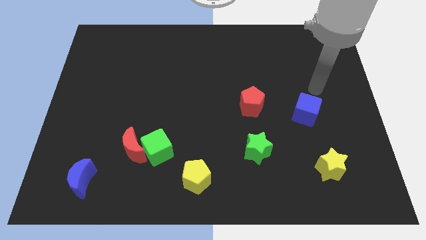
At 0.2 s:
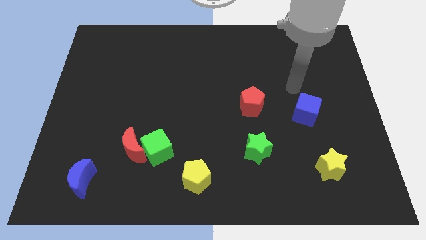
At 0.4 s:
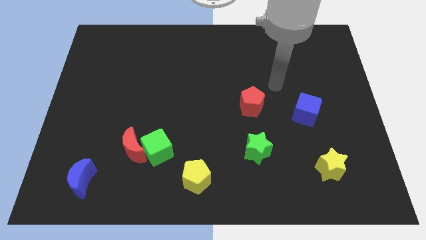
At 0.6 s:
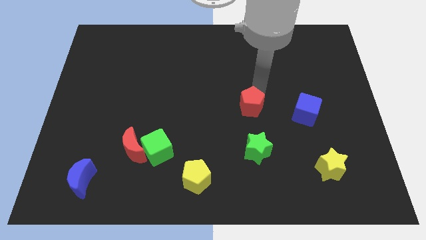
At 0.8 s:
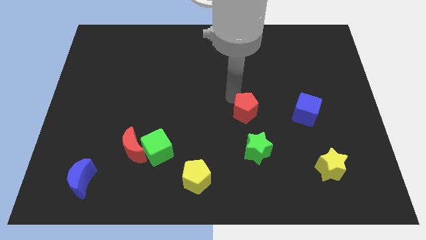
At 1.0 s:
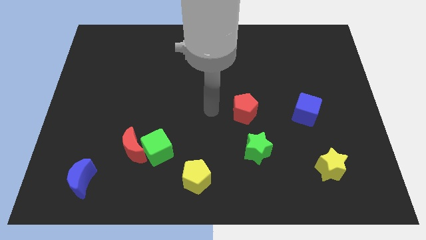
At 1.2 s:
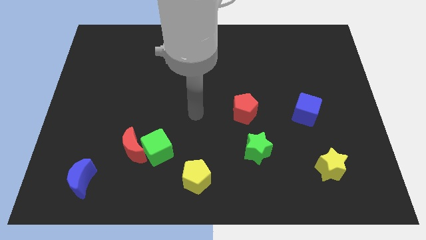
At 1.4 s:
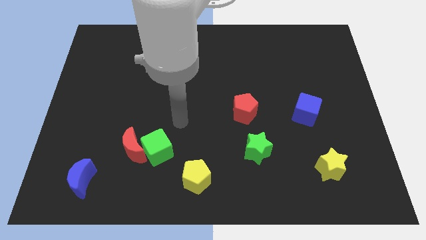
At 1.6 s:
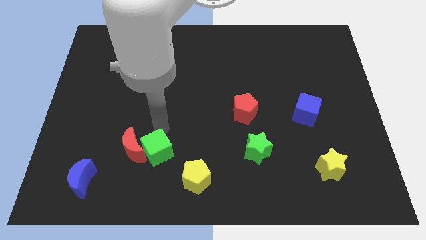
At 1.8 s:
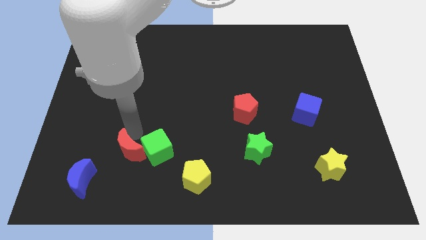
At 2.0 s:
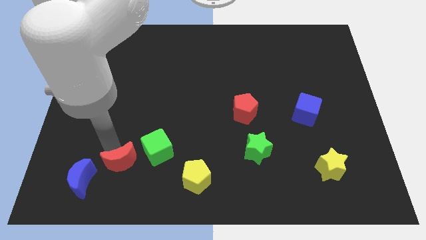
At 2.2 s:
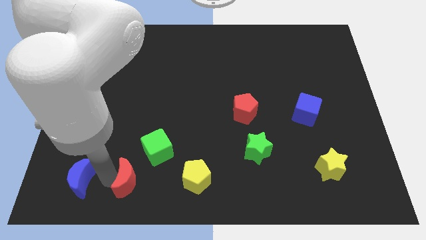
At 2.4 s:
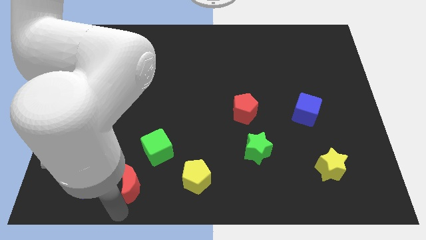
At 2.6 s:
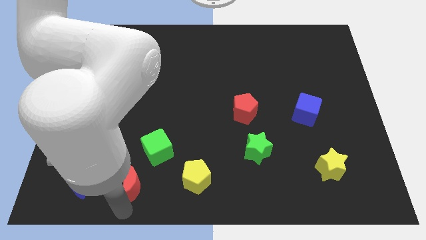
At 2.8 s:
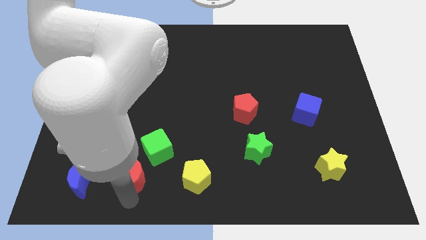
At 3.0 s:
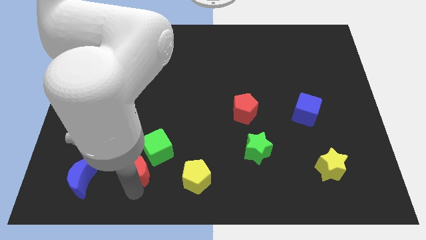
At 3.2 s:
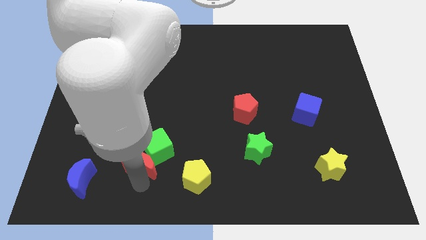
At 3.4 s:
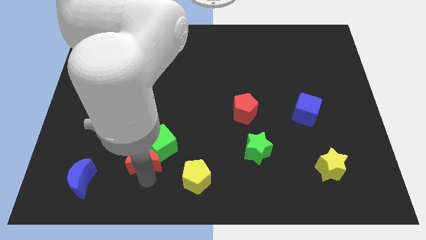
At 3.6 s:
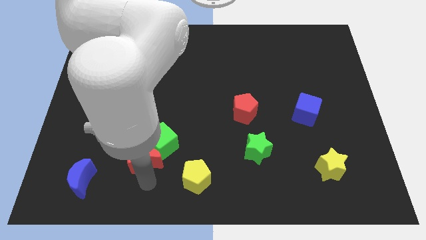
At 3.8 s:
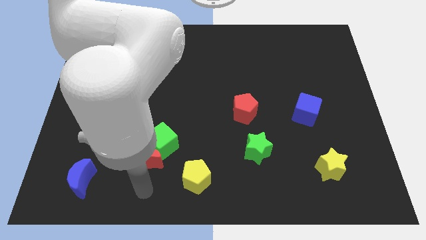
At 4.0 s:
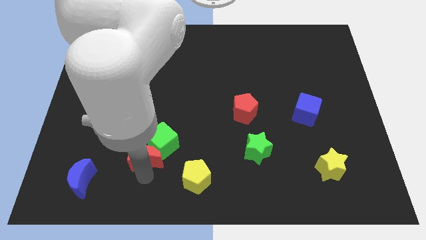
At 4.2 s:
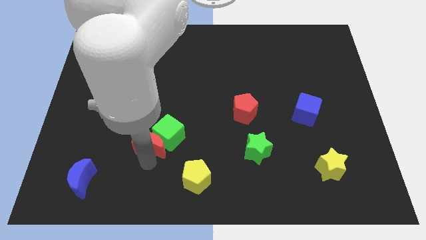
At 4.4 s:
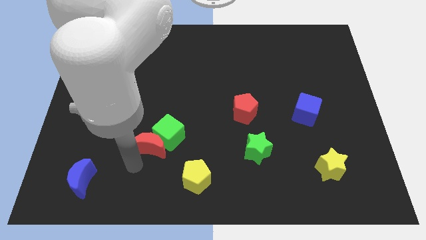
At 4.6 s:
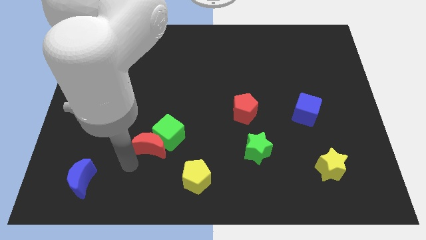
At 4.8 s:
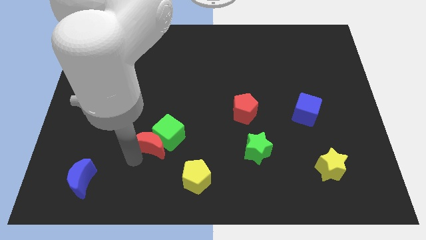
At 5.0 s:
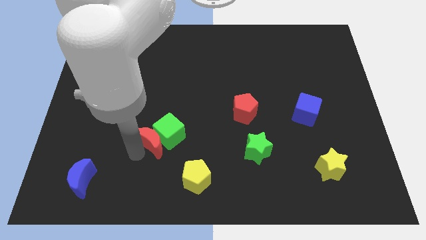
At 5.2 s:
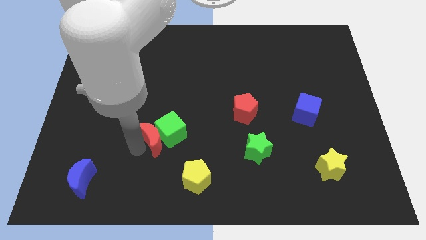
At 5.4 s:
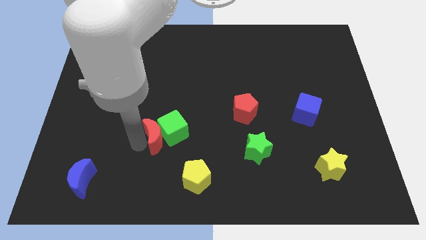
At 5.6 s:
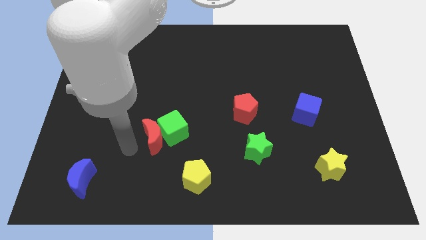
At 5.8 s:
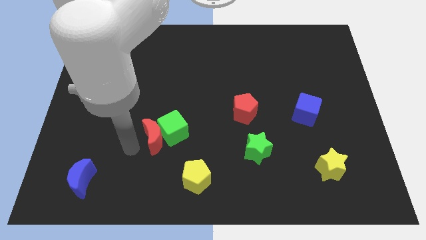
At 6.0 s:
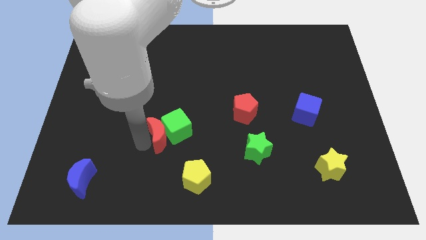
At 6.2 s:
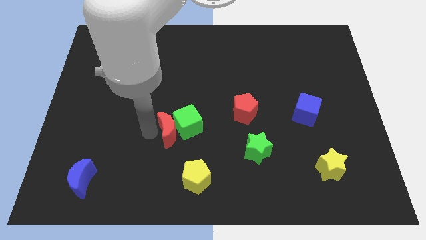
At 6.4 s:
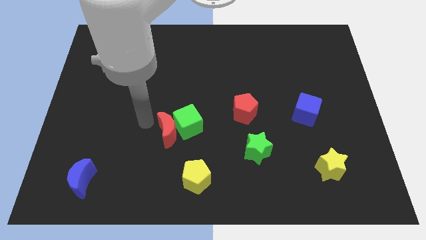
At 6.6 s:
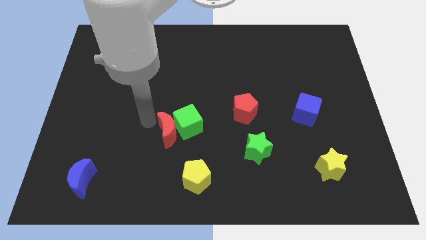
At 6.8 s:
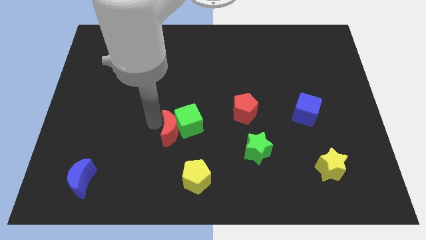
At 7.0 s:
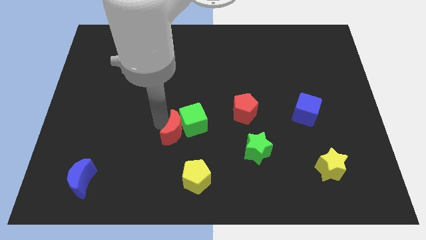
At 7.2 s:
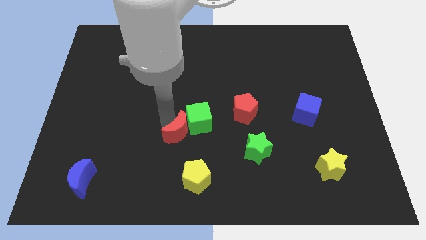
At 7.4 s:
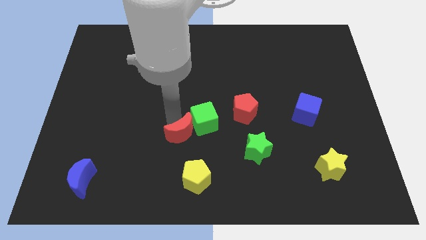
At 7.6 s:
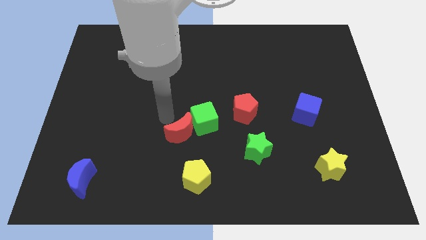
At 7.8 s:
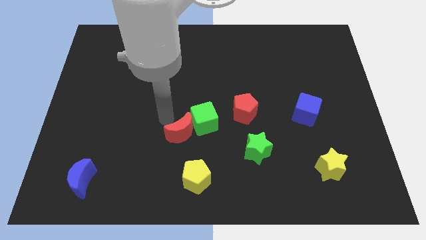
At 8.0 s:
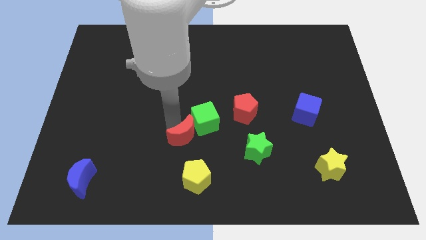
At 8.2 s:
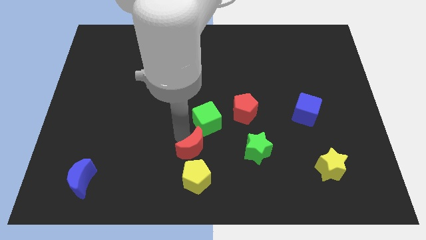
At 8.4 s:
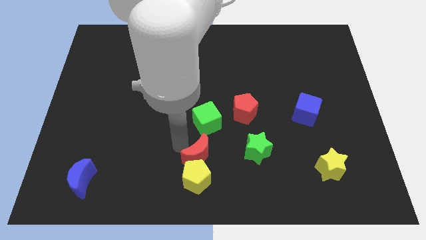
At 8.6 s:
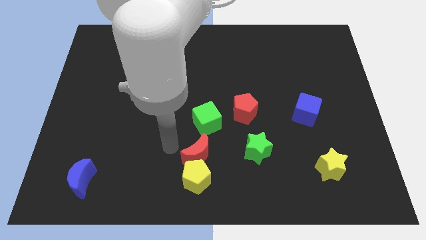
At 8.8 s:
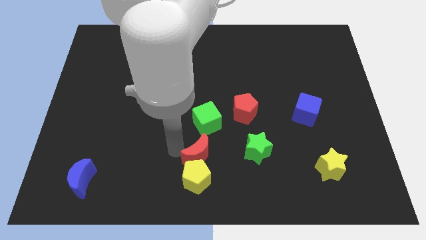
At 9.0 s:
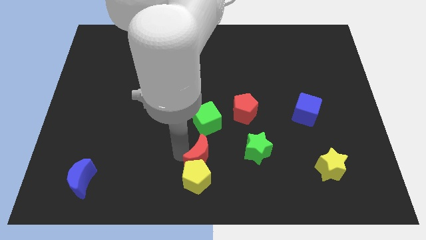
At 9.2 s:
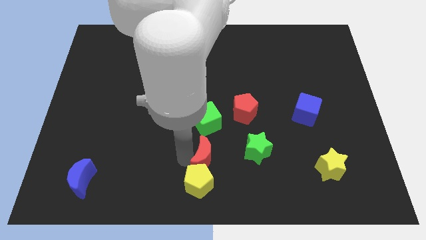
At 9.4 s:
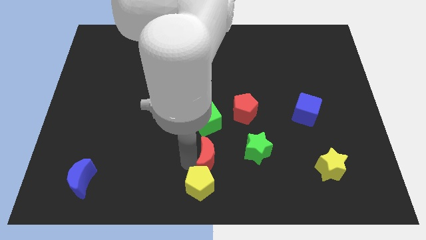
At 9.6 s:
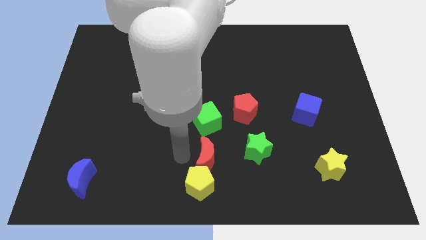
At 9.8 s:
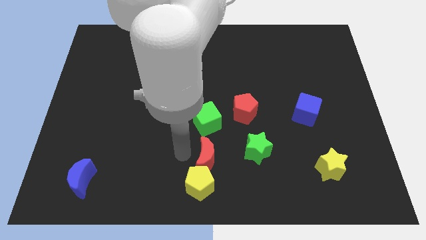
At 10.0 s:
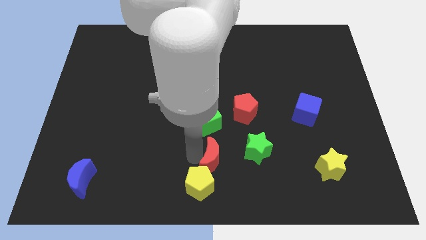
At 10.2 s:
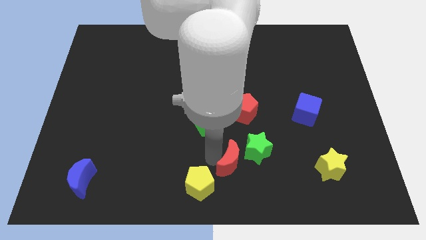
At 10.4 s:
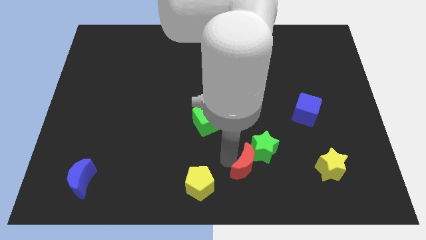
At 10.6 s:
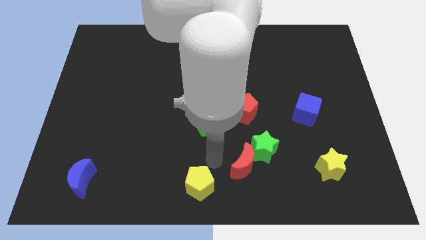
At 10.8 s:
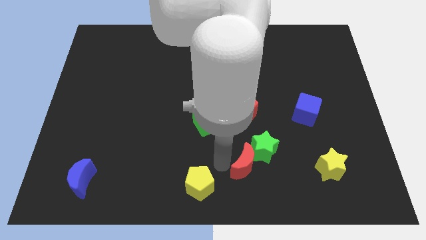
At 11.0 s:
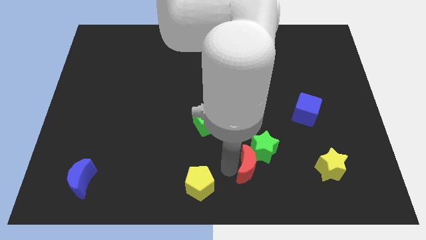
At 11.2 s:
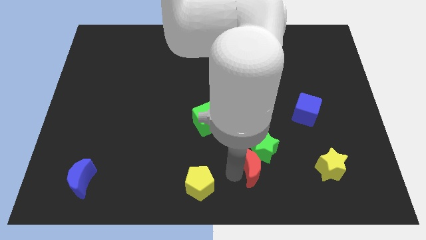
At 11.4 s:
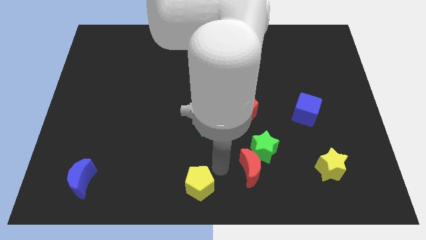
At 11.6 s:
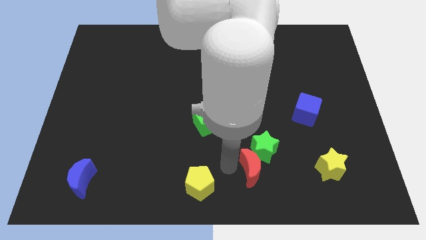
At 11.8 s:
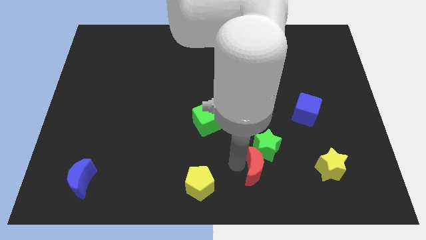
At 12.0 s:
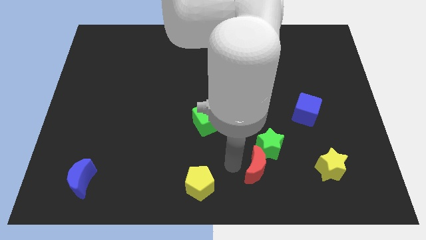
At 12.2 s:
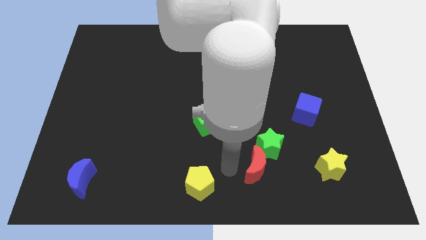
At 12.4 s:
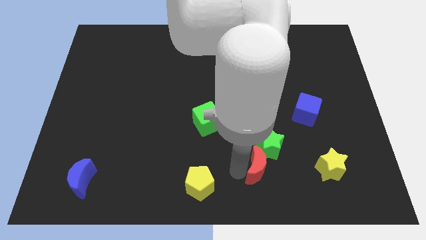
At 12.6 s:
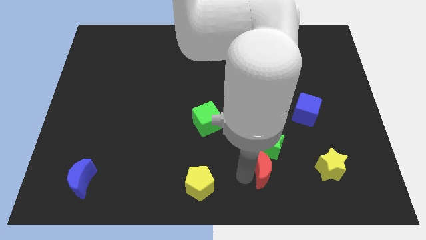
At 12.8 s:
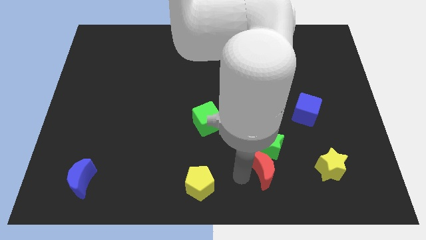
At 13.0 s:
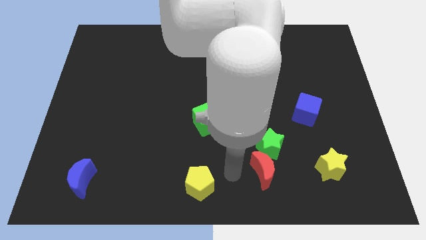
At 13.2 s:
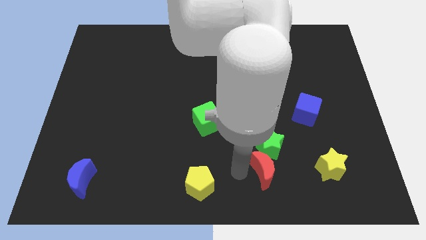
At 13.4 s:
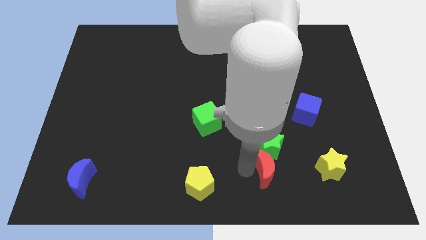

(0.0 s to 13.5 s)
slide the red moon diagonally down and to the right of the green star
